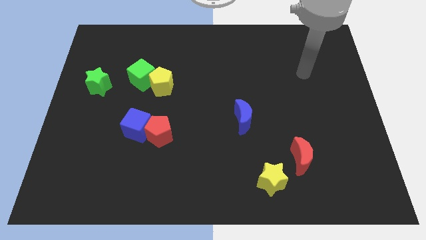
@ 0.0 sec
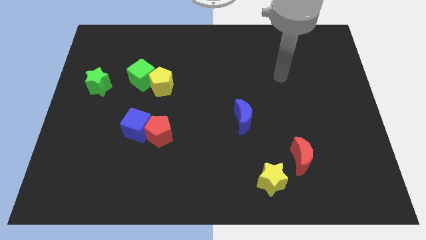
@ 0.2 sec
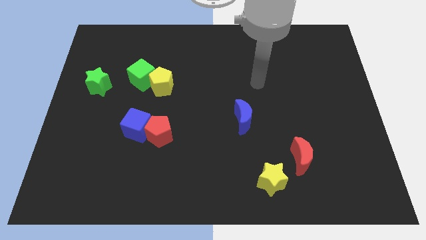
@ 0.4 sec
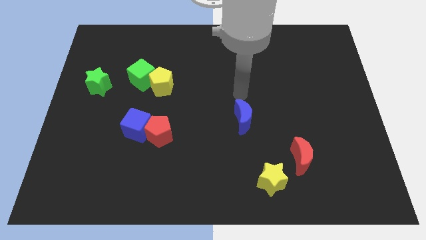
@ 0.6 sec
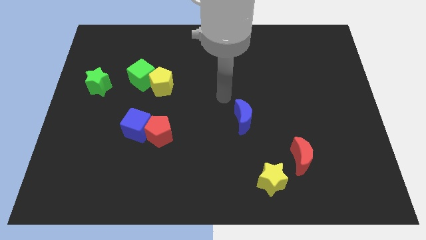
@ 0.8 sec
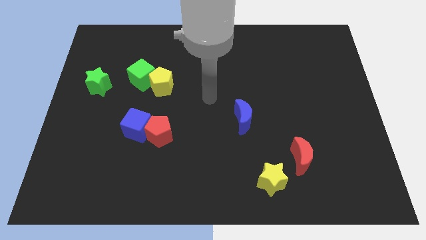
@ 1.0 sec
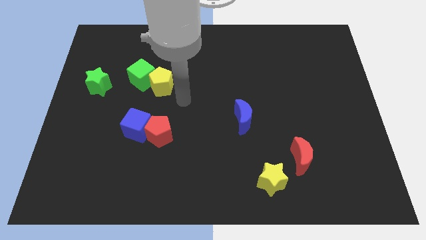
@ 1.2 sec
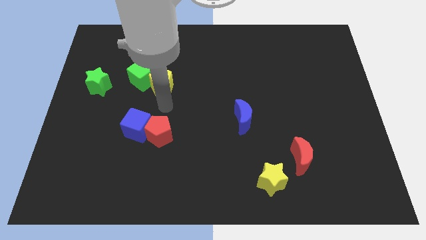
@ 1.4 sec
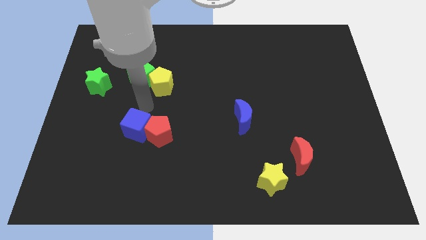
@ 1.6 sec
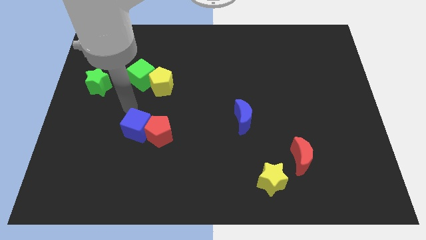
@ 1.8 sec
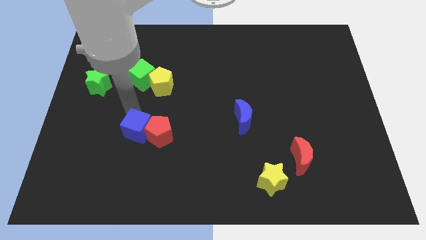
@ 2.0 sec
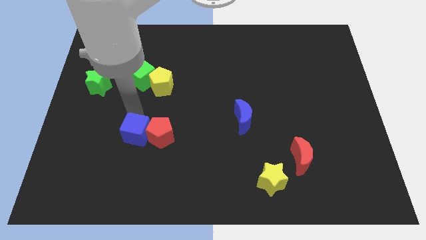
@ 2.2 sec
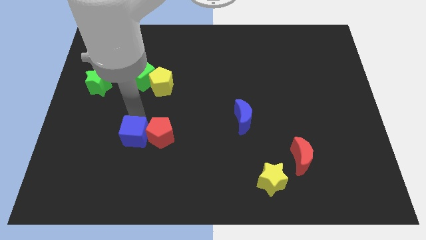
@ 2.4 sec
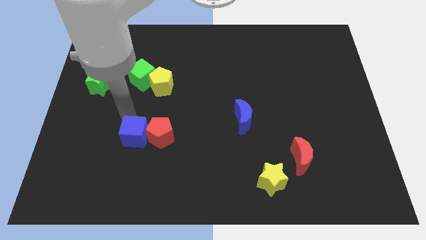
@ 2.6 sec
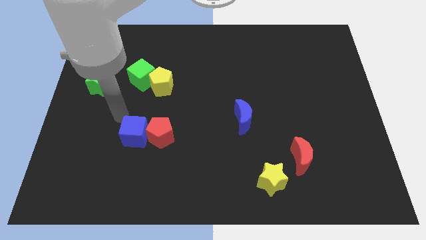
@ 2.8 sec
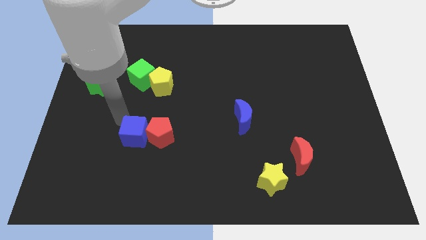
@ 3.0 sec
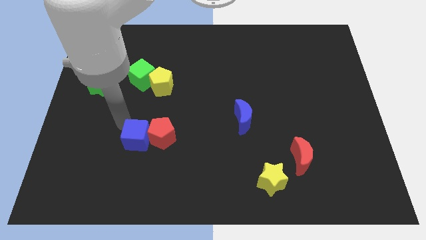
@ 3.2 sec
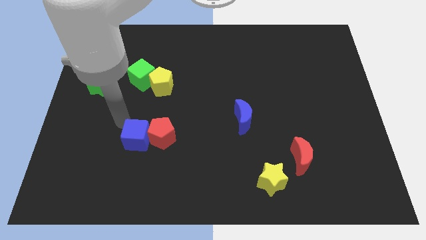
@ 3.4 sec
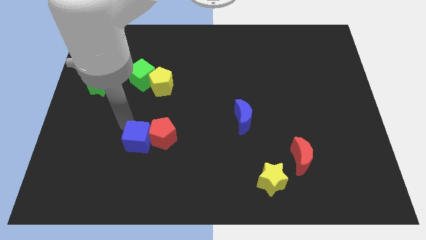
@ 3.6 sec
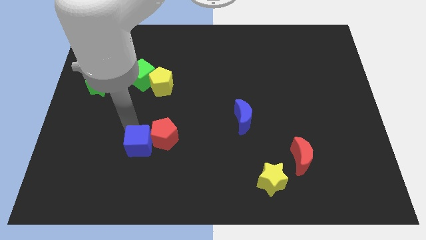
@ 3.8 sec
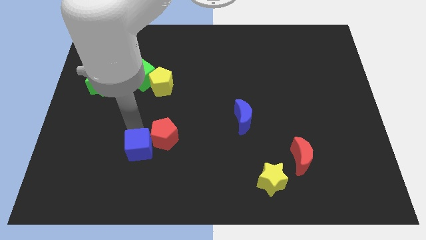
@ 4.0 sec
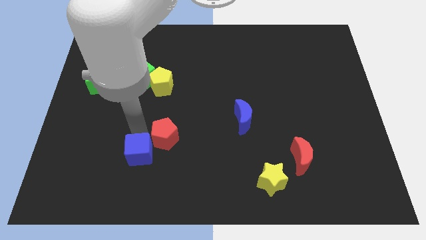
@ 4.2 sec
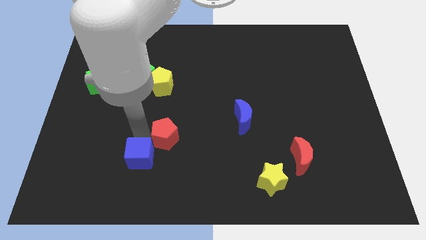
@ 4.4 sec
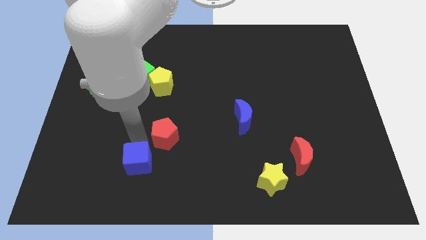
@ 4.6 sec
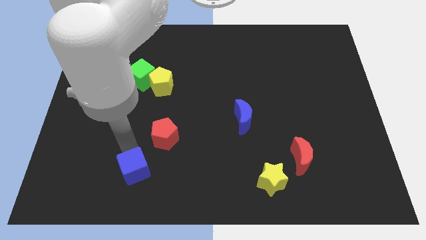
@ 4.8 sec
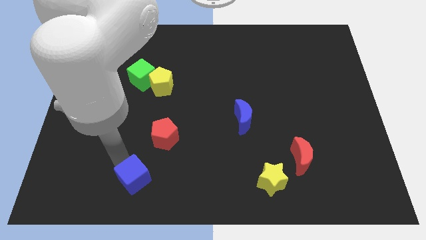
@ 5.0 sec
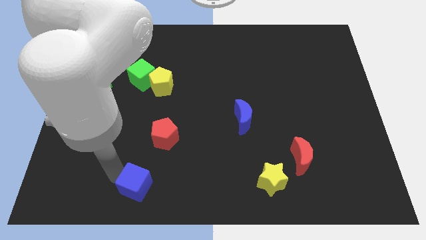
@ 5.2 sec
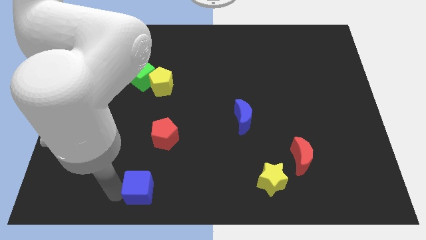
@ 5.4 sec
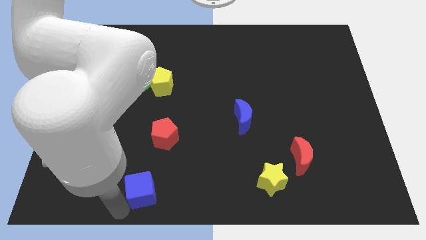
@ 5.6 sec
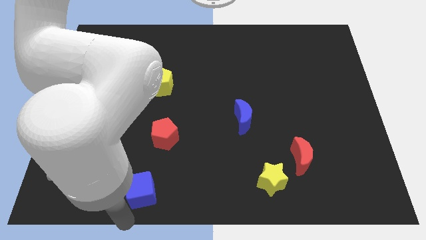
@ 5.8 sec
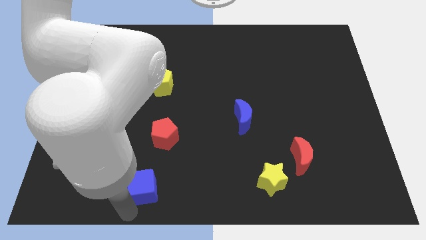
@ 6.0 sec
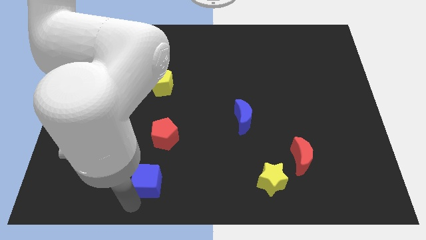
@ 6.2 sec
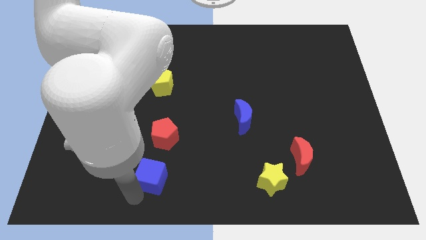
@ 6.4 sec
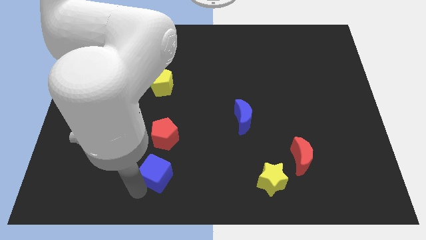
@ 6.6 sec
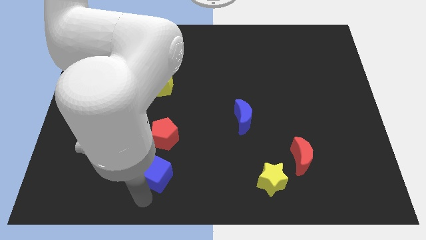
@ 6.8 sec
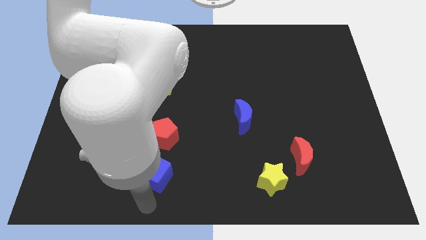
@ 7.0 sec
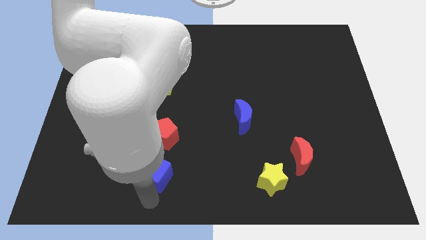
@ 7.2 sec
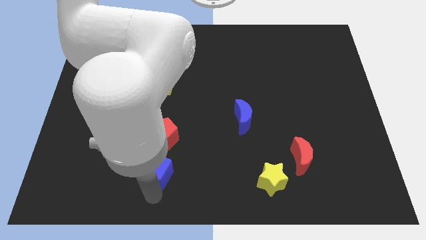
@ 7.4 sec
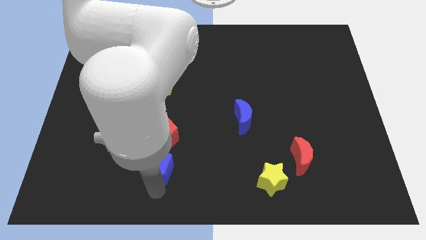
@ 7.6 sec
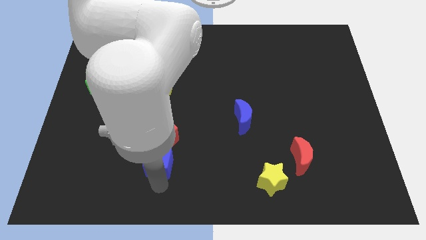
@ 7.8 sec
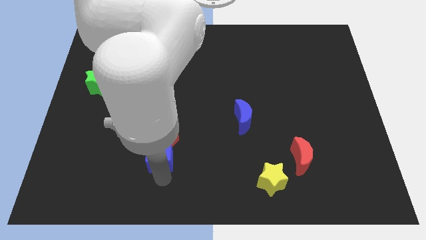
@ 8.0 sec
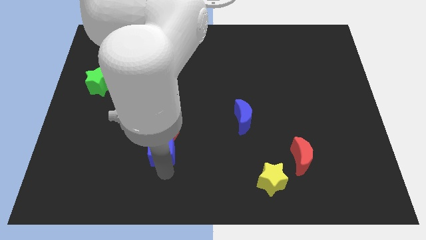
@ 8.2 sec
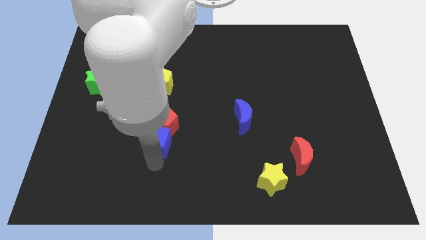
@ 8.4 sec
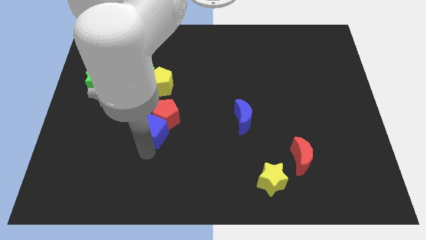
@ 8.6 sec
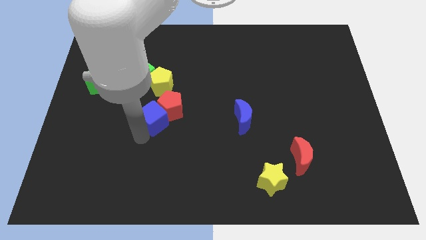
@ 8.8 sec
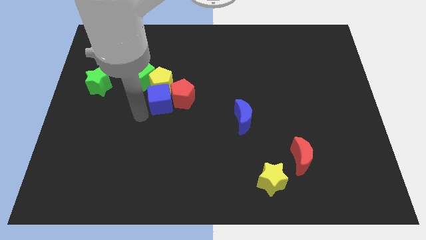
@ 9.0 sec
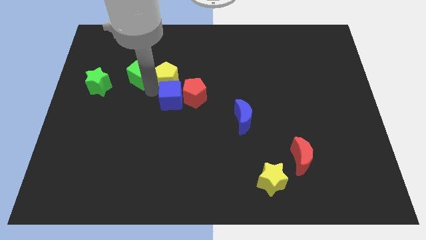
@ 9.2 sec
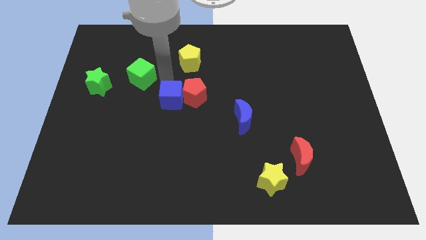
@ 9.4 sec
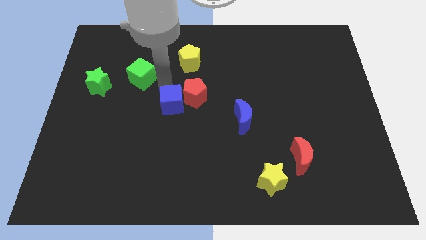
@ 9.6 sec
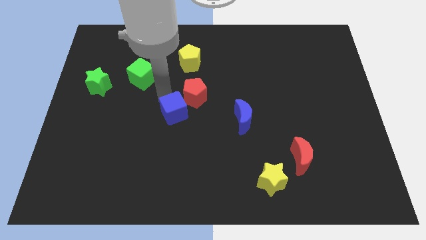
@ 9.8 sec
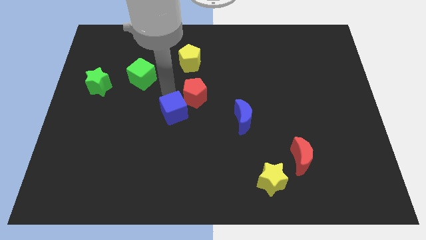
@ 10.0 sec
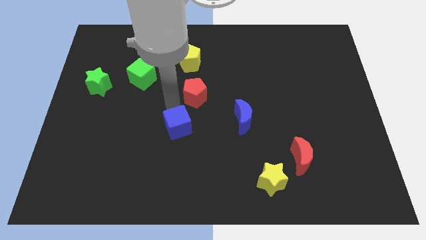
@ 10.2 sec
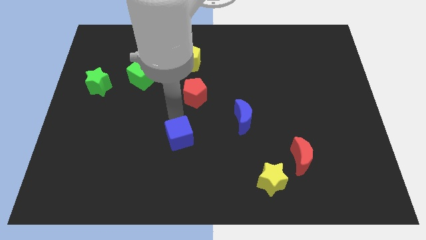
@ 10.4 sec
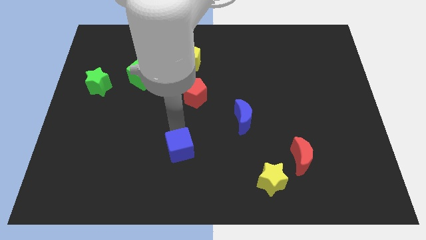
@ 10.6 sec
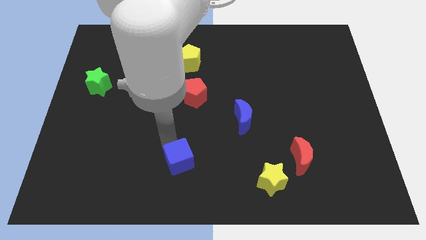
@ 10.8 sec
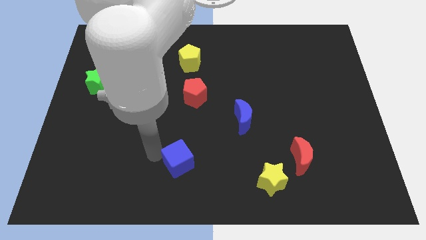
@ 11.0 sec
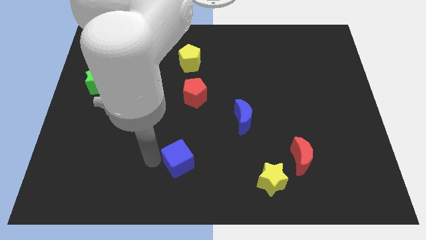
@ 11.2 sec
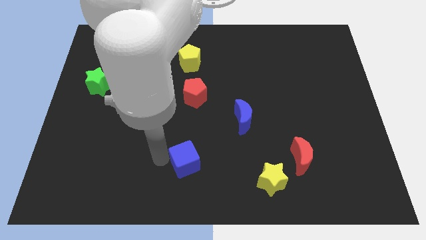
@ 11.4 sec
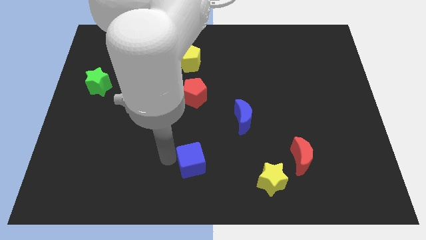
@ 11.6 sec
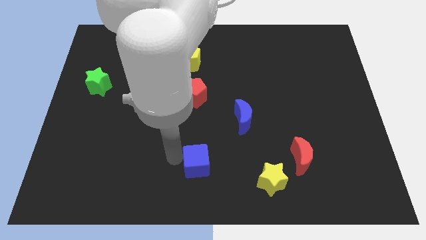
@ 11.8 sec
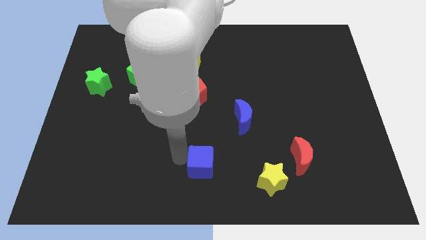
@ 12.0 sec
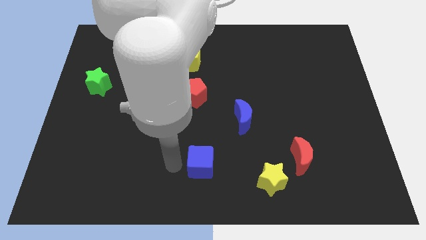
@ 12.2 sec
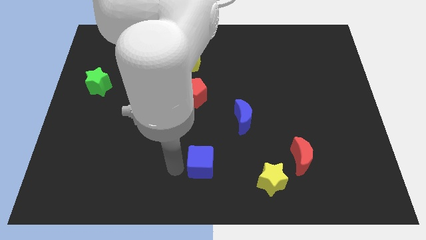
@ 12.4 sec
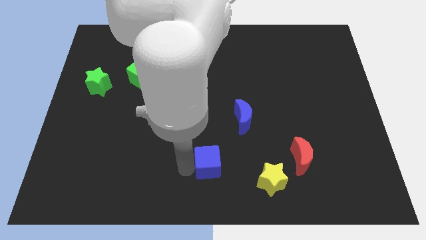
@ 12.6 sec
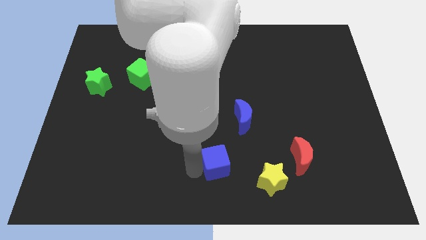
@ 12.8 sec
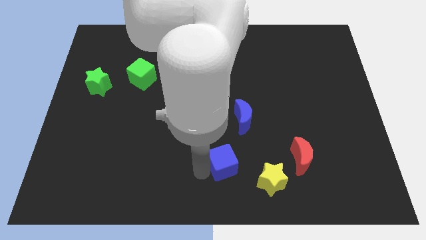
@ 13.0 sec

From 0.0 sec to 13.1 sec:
slide the blue cube to the top left side of the yellow star

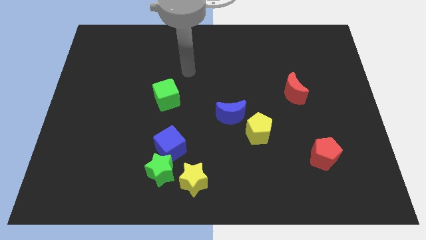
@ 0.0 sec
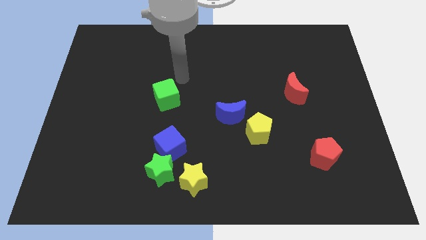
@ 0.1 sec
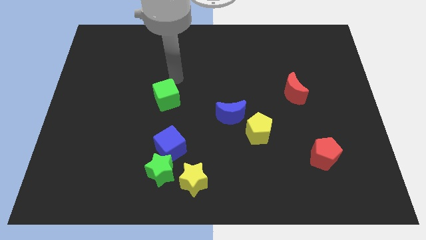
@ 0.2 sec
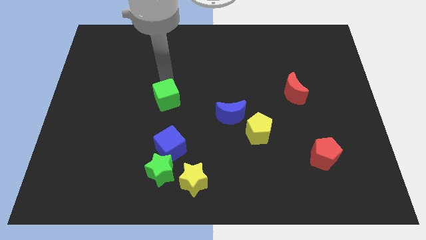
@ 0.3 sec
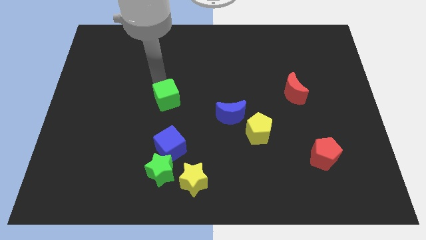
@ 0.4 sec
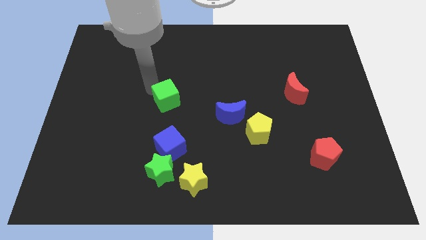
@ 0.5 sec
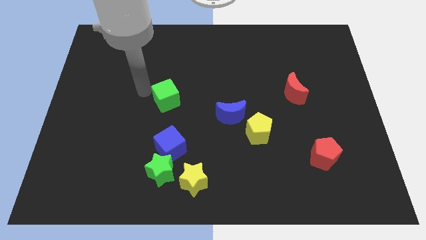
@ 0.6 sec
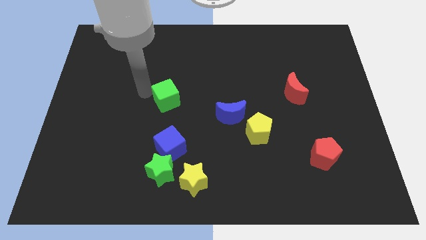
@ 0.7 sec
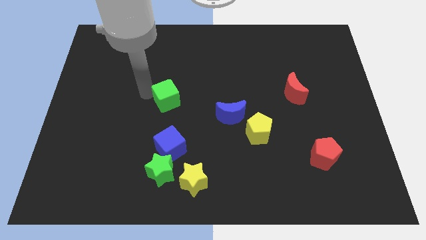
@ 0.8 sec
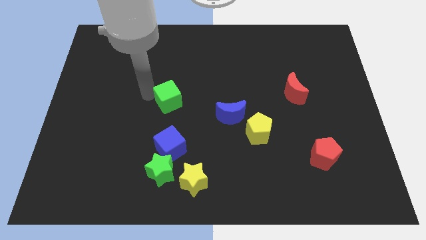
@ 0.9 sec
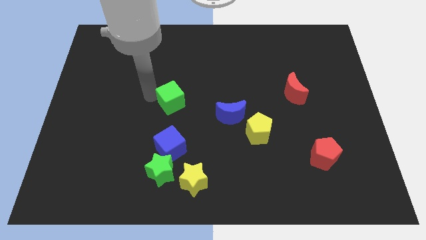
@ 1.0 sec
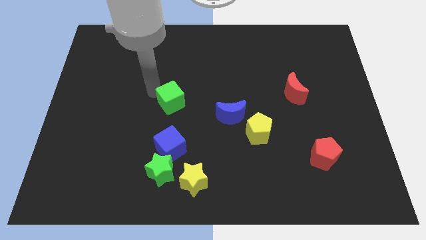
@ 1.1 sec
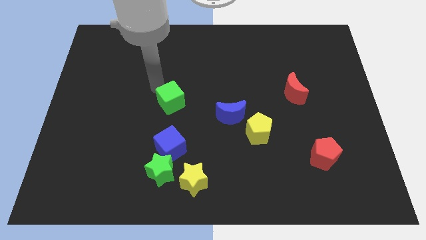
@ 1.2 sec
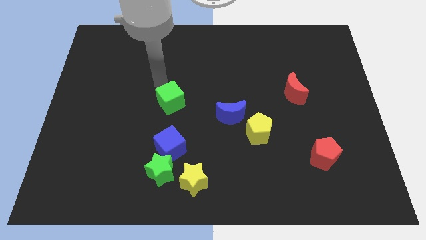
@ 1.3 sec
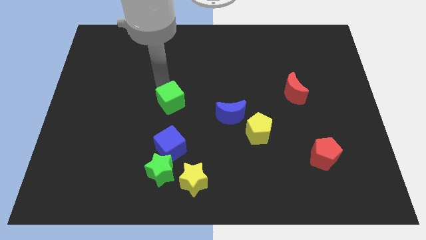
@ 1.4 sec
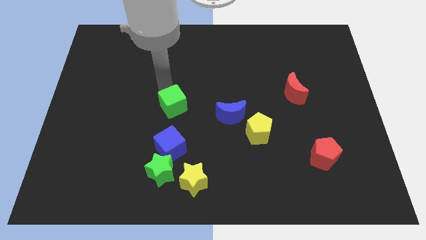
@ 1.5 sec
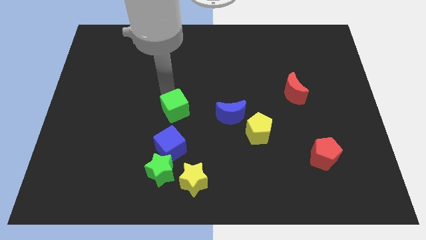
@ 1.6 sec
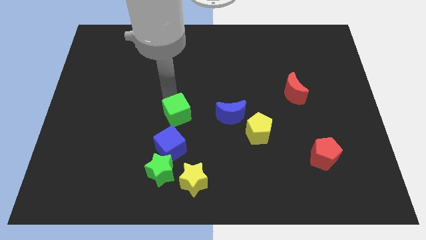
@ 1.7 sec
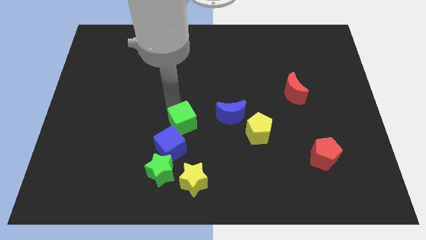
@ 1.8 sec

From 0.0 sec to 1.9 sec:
put the green cube to the top side of the yellow star
